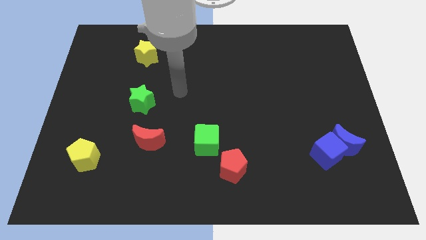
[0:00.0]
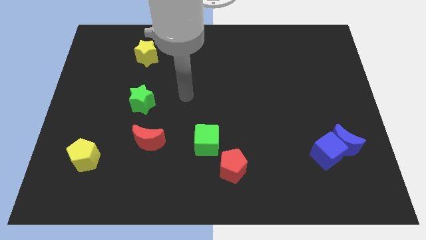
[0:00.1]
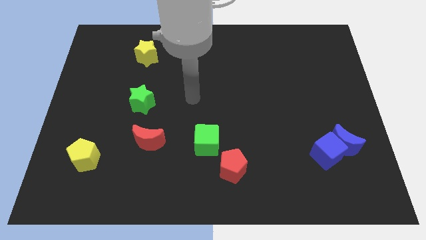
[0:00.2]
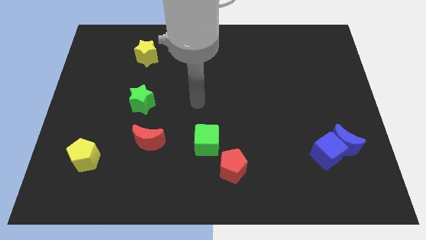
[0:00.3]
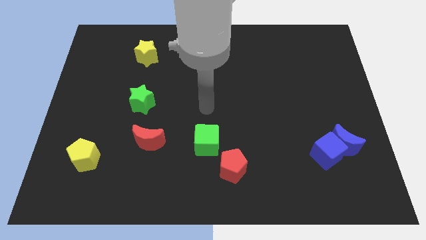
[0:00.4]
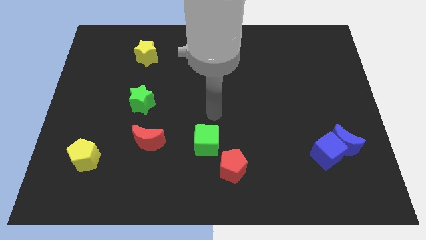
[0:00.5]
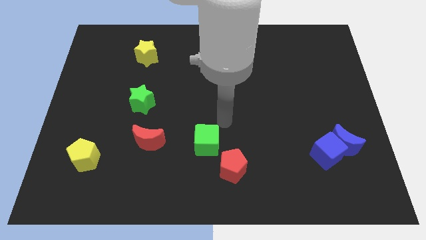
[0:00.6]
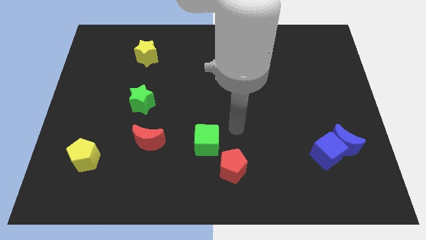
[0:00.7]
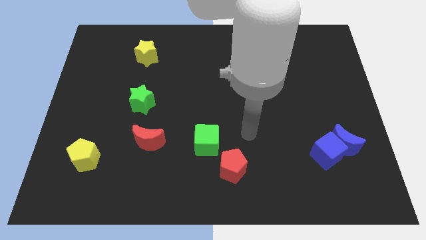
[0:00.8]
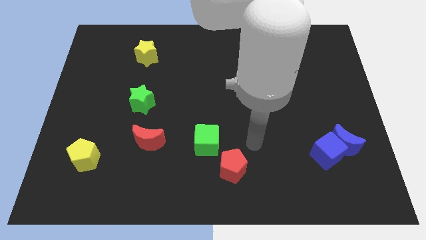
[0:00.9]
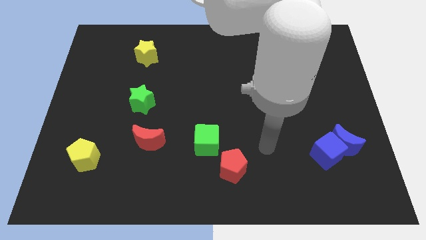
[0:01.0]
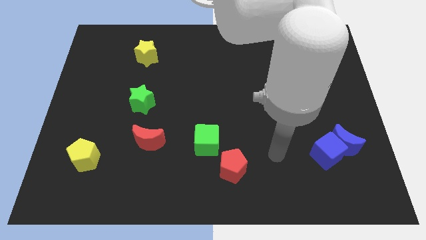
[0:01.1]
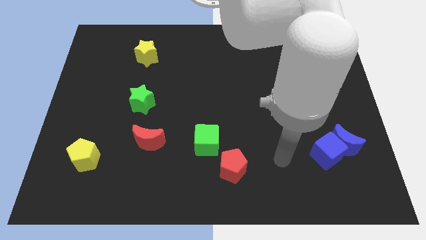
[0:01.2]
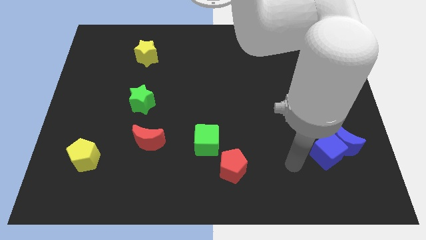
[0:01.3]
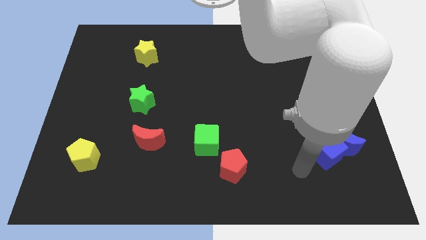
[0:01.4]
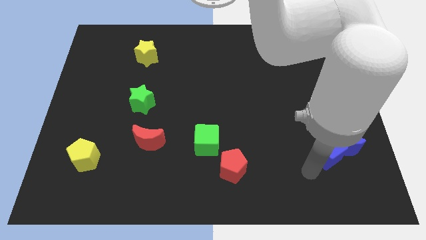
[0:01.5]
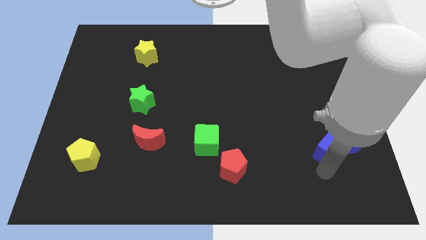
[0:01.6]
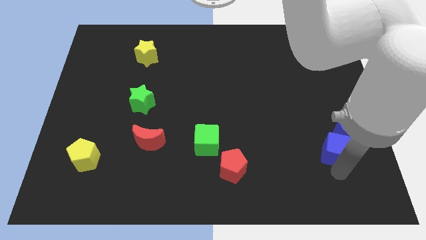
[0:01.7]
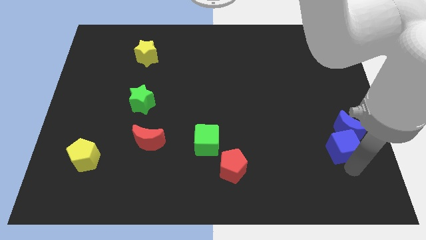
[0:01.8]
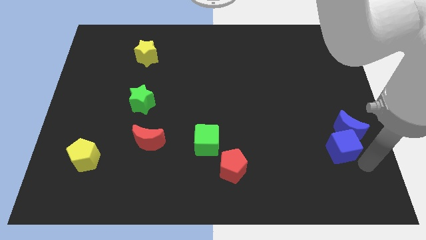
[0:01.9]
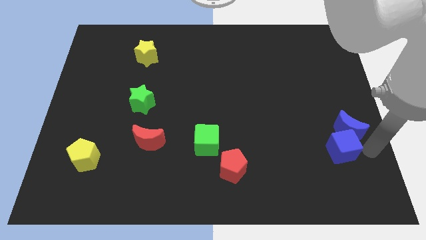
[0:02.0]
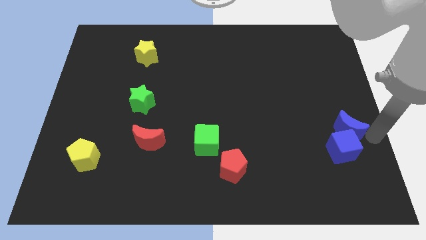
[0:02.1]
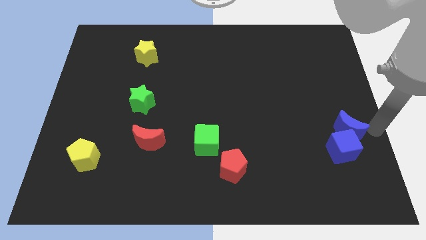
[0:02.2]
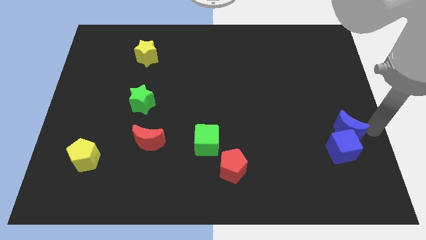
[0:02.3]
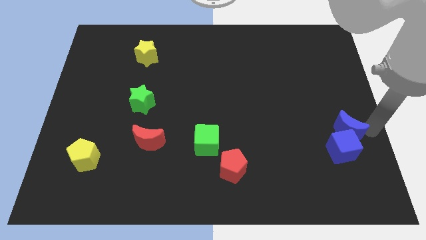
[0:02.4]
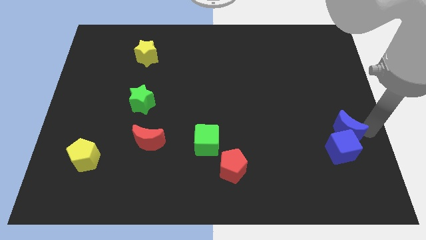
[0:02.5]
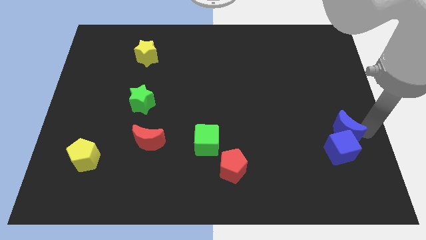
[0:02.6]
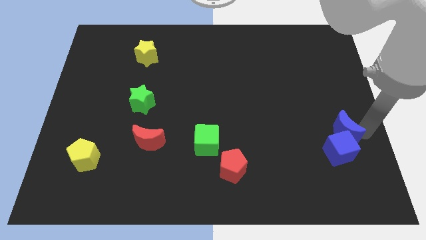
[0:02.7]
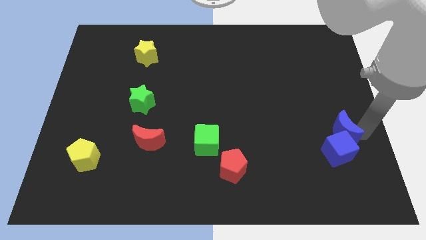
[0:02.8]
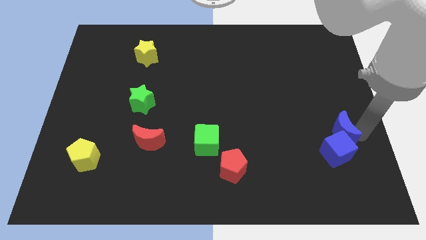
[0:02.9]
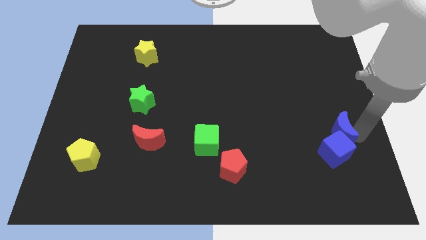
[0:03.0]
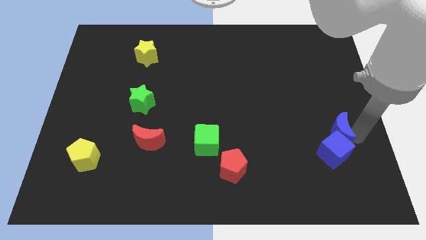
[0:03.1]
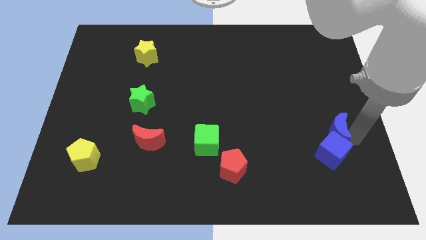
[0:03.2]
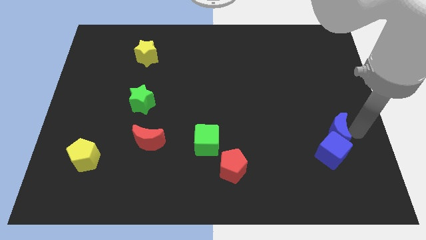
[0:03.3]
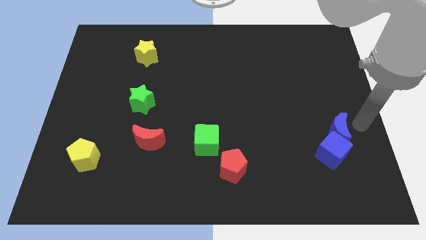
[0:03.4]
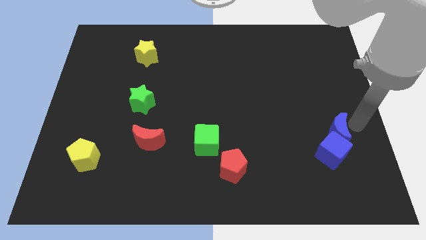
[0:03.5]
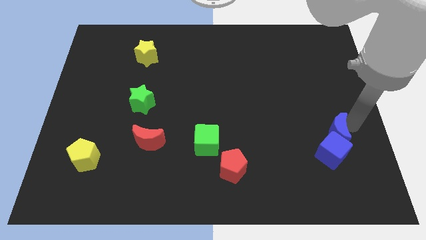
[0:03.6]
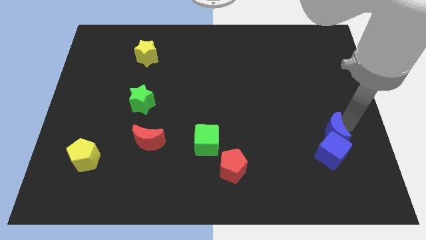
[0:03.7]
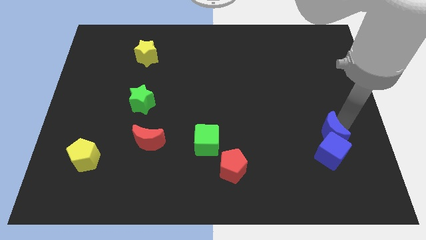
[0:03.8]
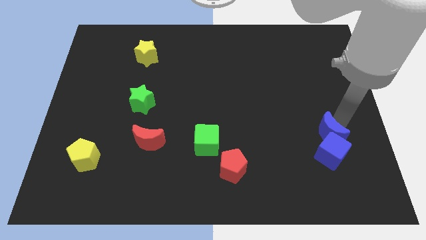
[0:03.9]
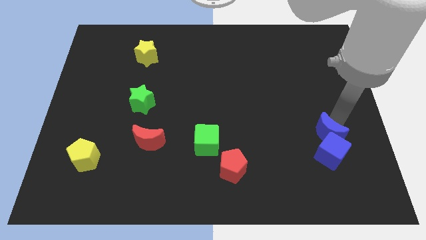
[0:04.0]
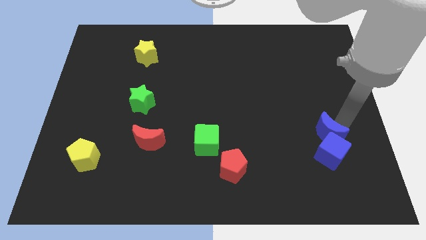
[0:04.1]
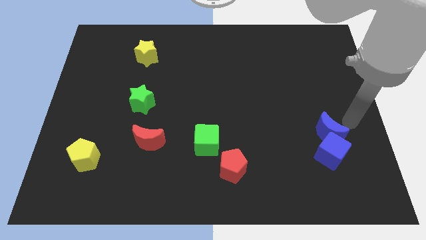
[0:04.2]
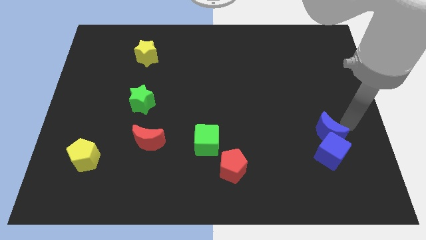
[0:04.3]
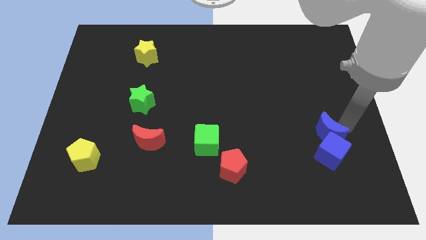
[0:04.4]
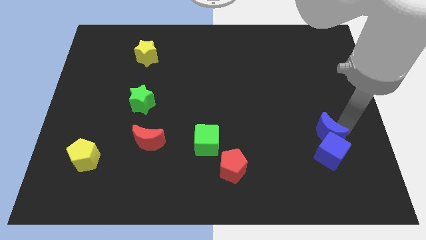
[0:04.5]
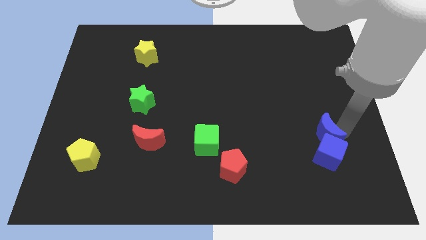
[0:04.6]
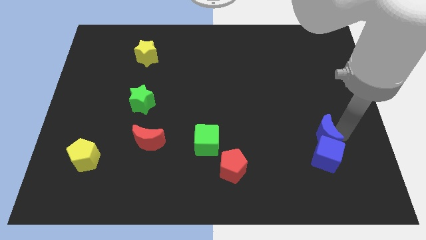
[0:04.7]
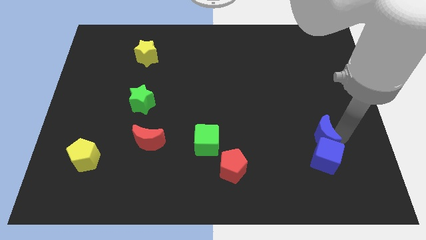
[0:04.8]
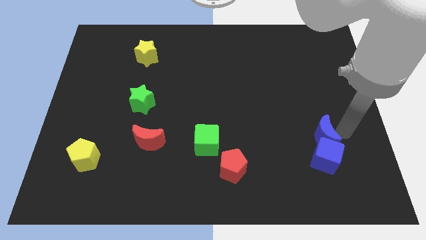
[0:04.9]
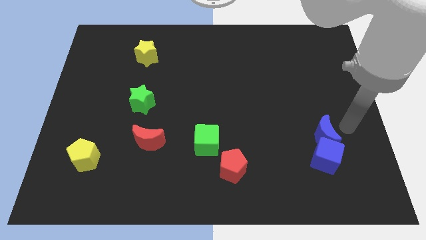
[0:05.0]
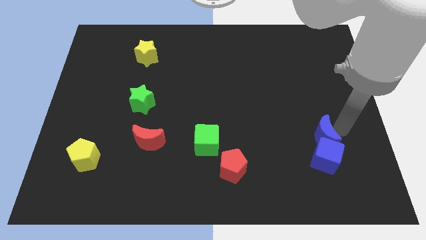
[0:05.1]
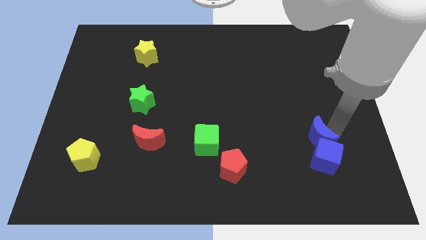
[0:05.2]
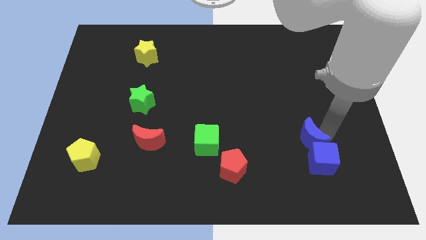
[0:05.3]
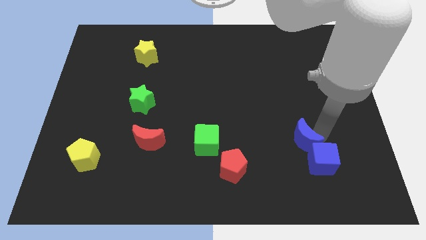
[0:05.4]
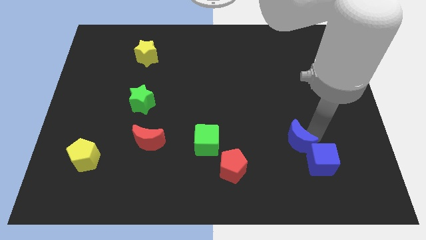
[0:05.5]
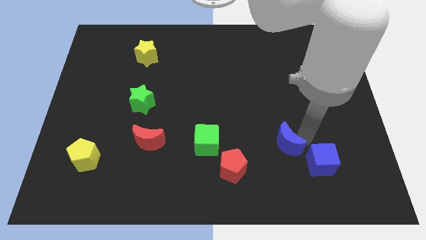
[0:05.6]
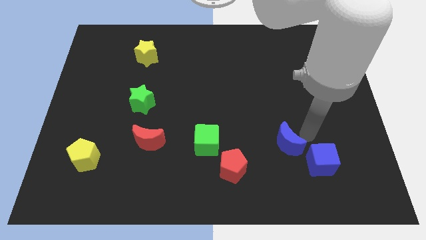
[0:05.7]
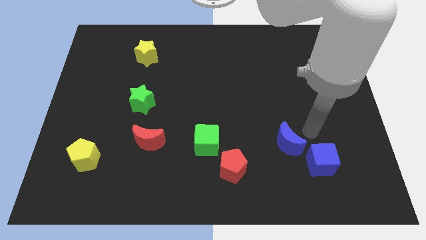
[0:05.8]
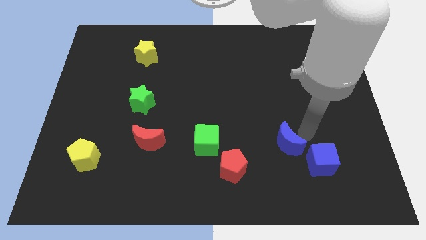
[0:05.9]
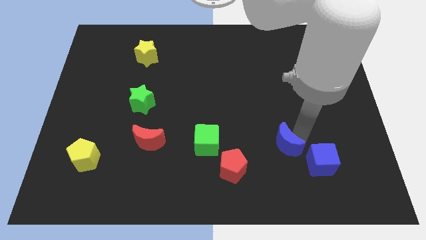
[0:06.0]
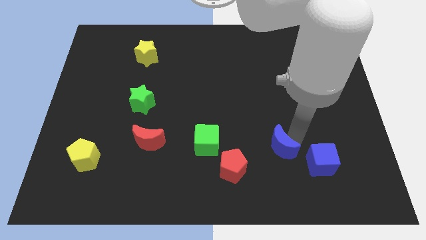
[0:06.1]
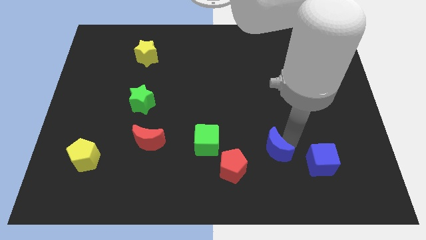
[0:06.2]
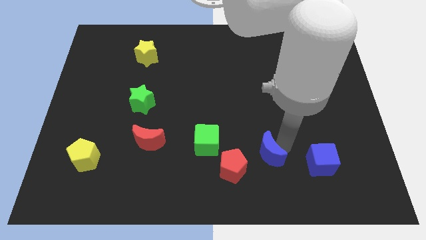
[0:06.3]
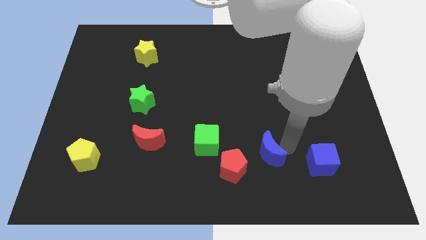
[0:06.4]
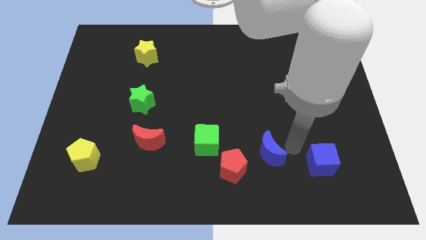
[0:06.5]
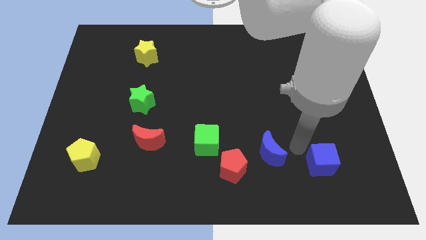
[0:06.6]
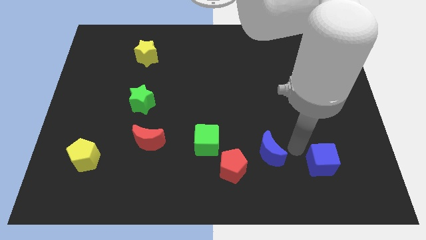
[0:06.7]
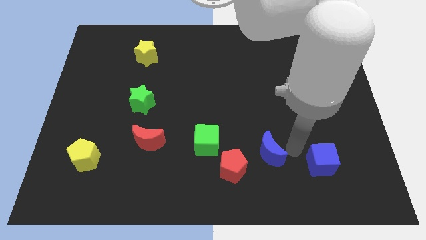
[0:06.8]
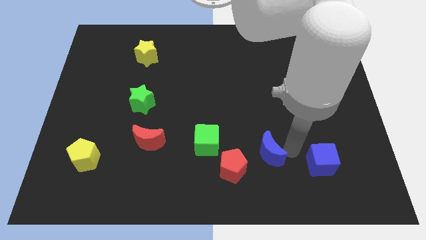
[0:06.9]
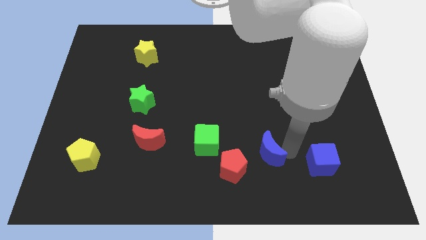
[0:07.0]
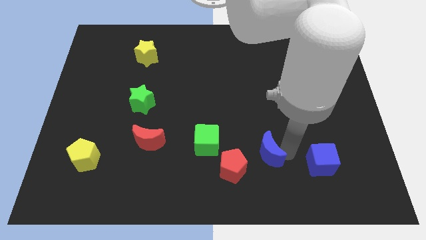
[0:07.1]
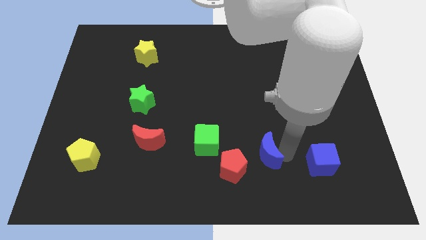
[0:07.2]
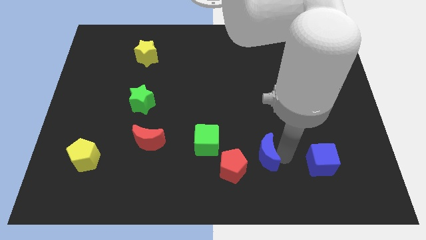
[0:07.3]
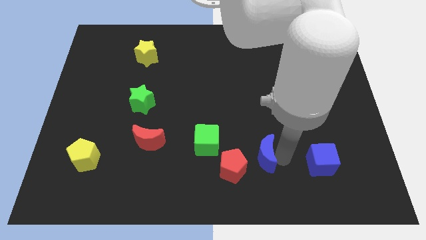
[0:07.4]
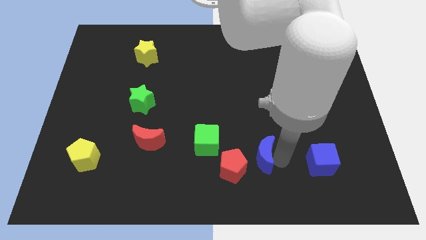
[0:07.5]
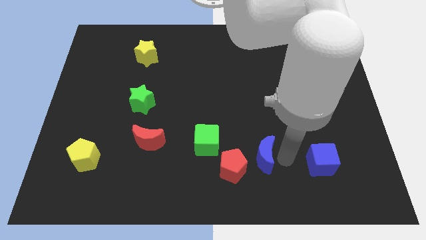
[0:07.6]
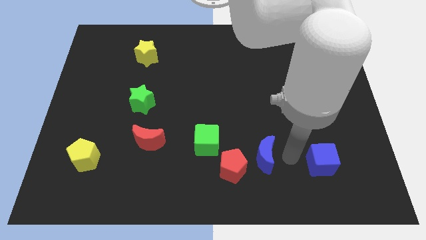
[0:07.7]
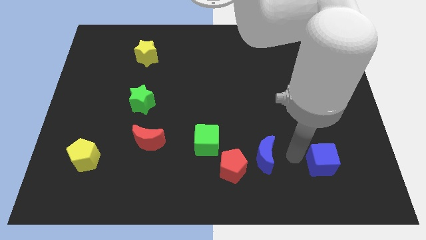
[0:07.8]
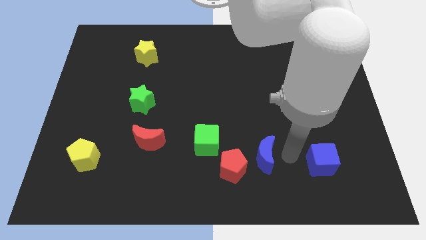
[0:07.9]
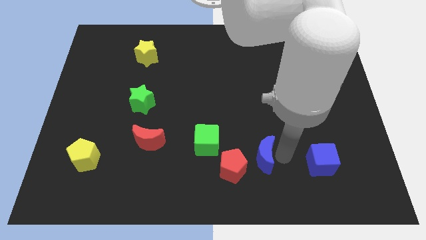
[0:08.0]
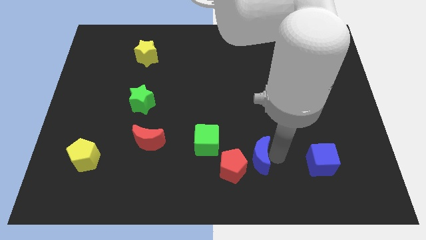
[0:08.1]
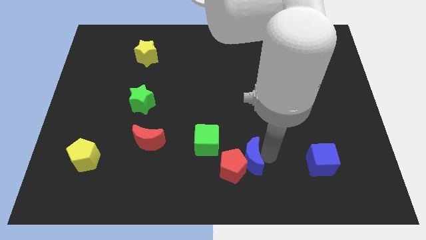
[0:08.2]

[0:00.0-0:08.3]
slide the blue moon close to the red pentagon
